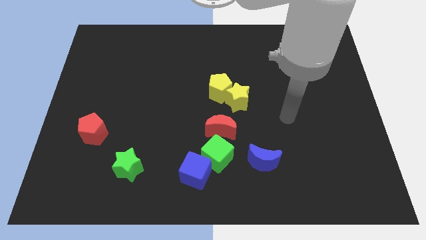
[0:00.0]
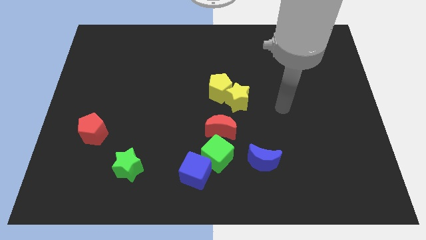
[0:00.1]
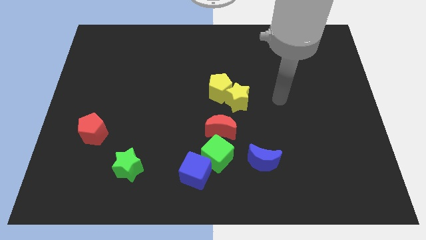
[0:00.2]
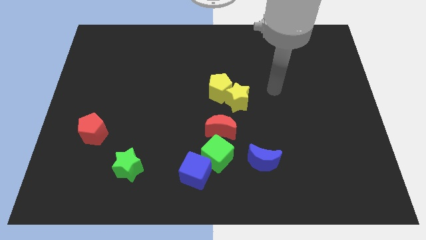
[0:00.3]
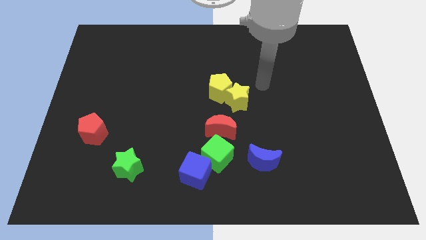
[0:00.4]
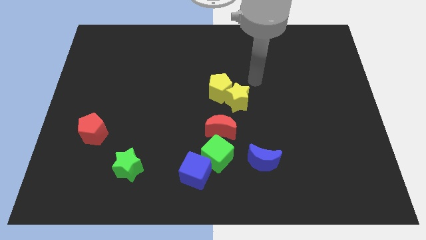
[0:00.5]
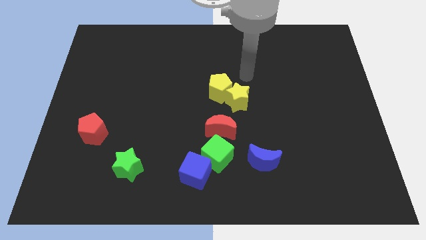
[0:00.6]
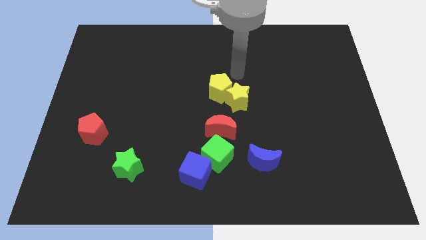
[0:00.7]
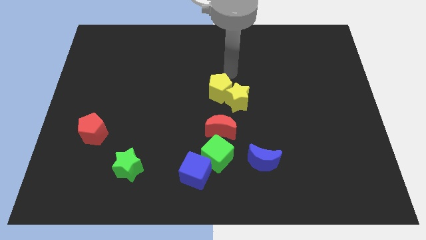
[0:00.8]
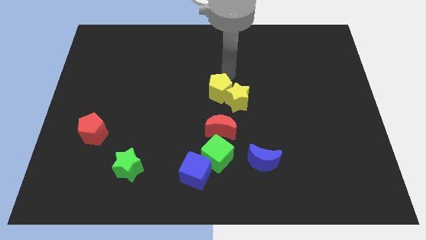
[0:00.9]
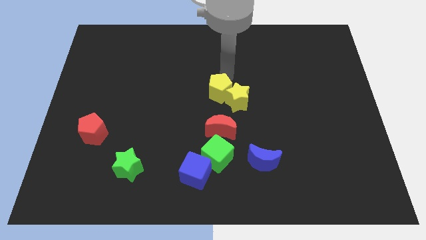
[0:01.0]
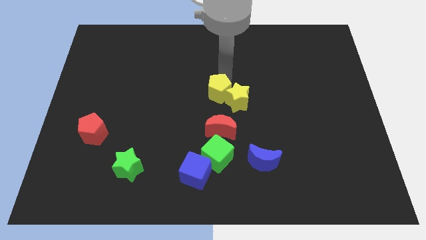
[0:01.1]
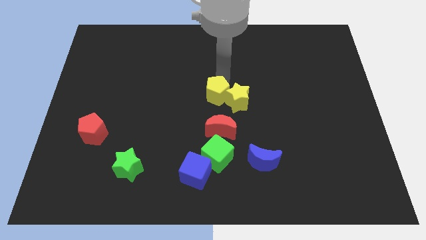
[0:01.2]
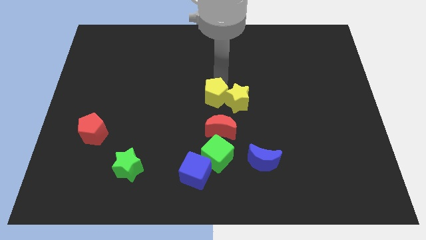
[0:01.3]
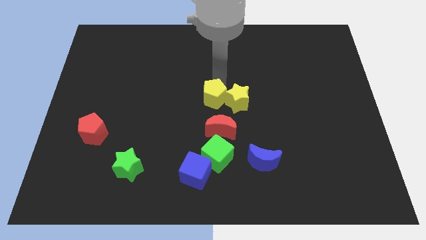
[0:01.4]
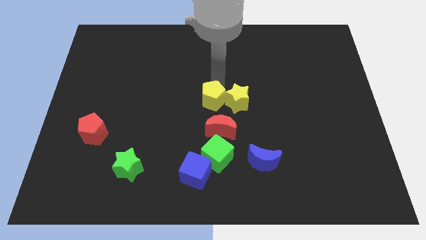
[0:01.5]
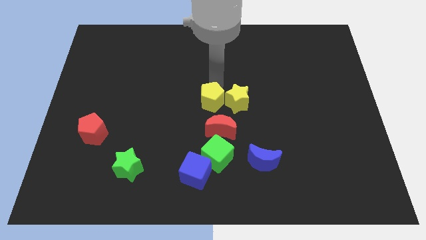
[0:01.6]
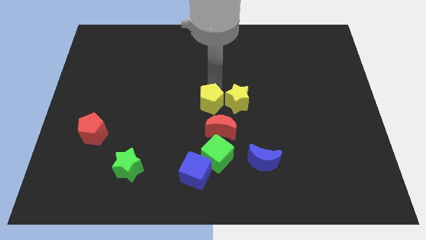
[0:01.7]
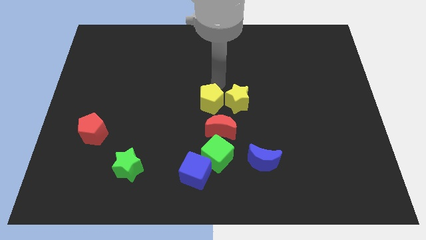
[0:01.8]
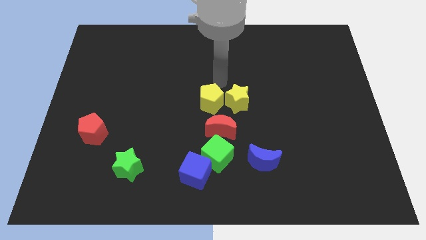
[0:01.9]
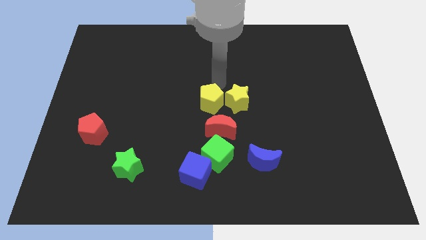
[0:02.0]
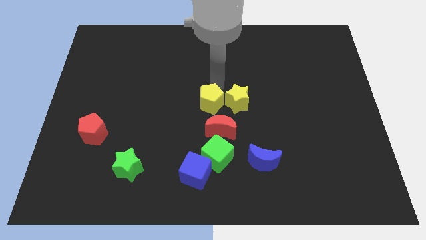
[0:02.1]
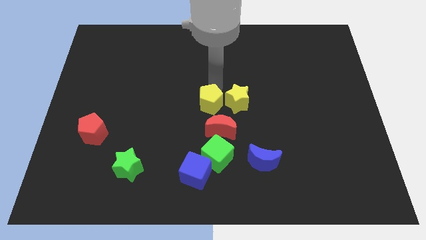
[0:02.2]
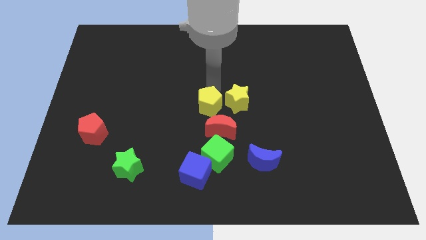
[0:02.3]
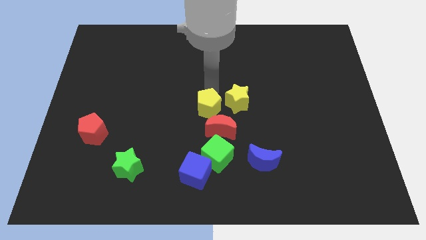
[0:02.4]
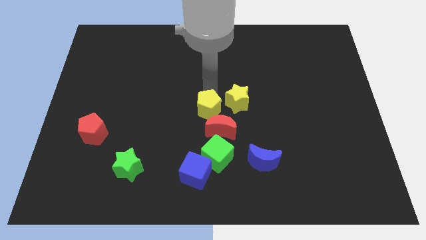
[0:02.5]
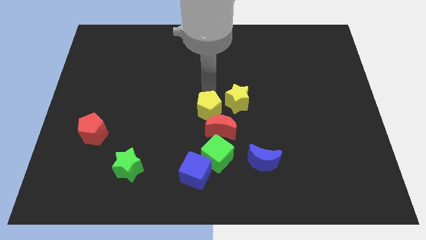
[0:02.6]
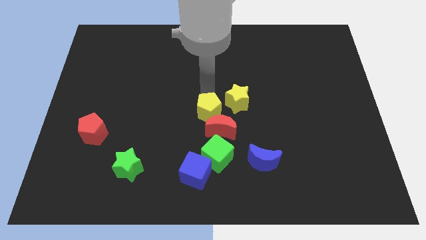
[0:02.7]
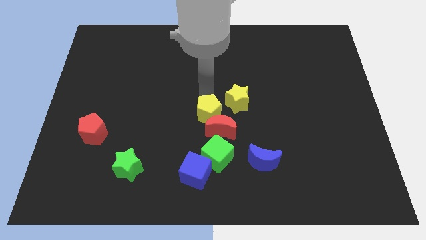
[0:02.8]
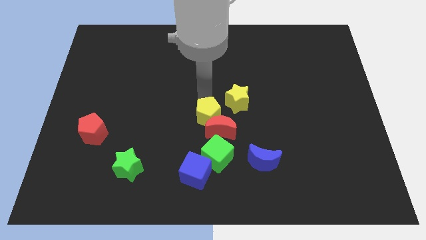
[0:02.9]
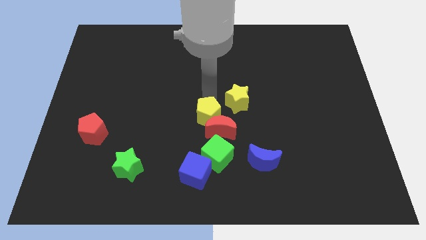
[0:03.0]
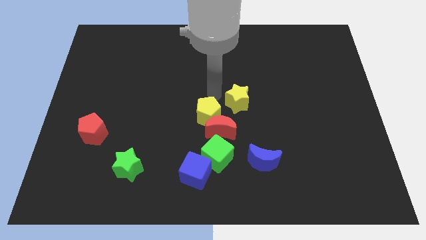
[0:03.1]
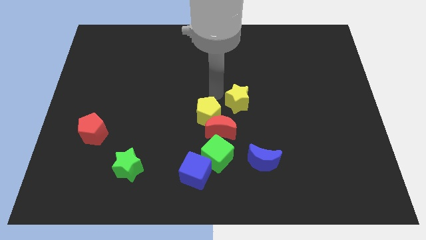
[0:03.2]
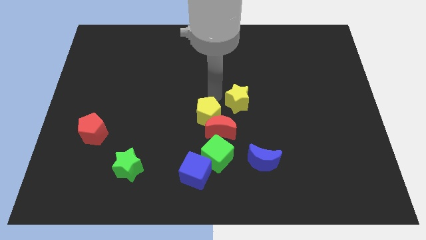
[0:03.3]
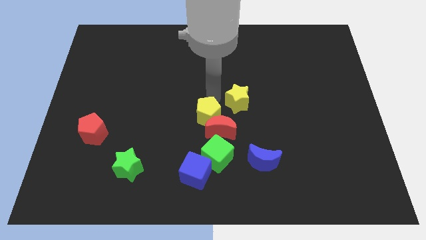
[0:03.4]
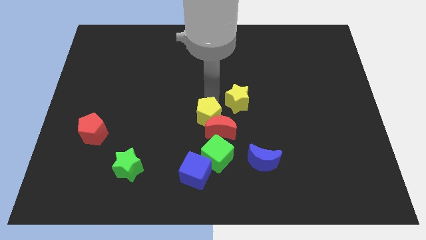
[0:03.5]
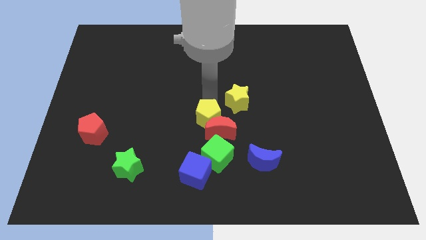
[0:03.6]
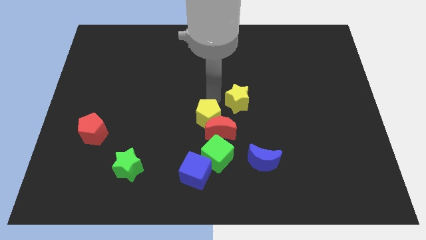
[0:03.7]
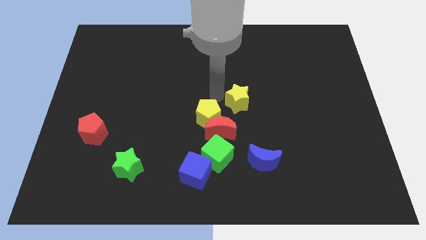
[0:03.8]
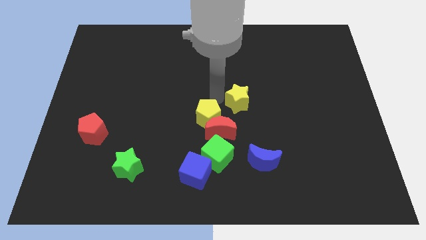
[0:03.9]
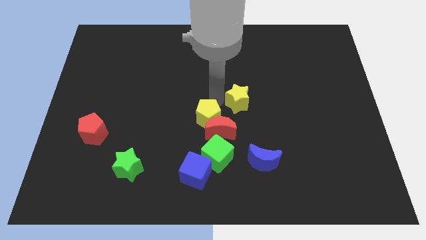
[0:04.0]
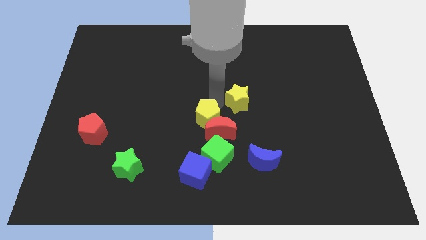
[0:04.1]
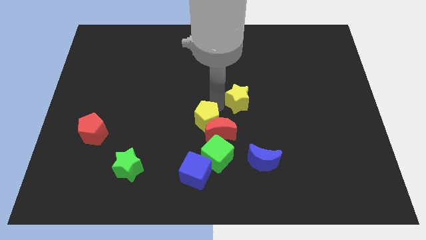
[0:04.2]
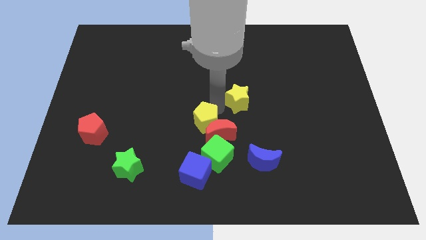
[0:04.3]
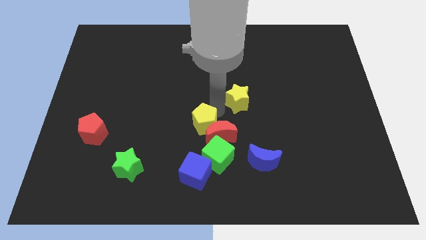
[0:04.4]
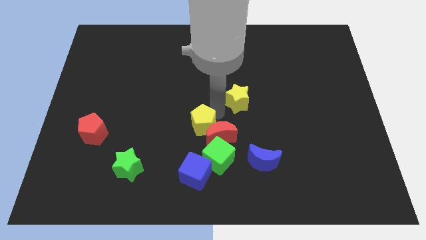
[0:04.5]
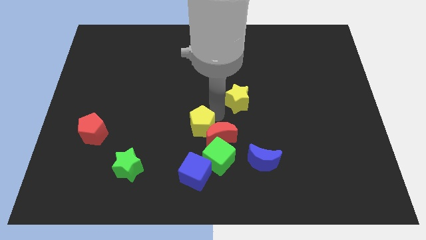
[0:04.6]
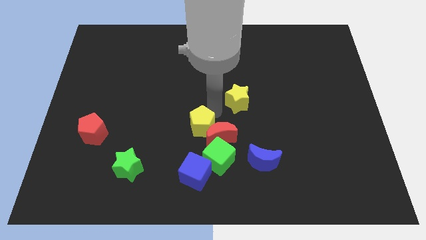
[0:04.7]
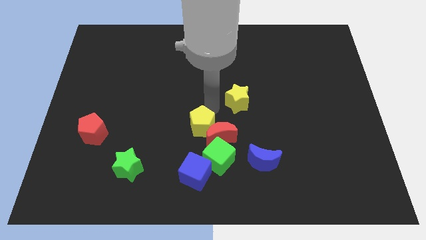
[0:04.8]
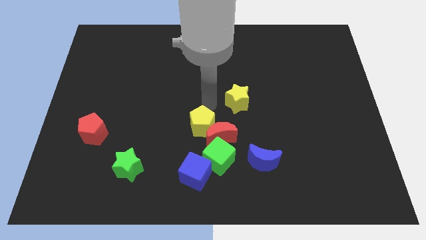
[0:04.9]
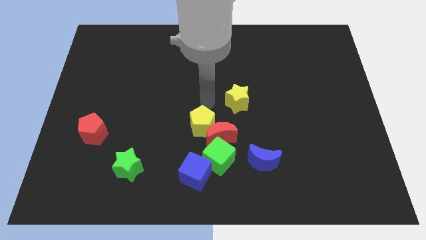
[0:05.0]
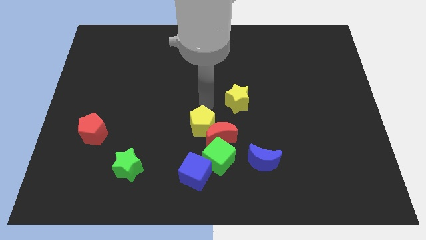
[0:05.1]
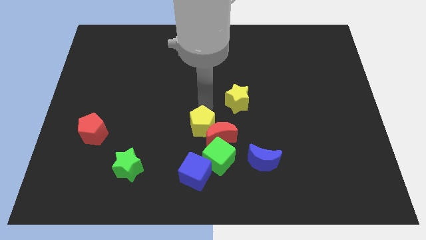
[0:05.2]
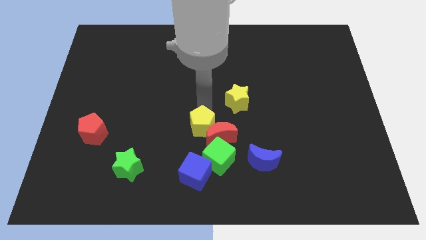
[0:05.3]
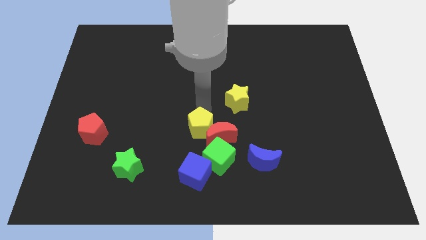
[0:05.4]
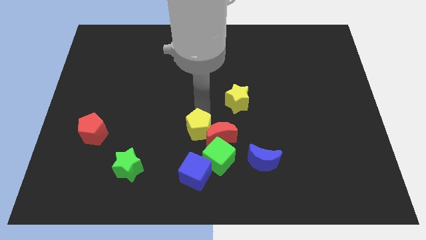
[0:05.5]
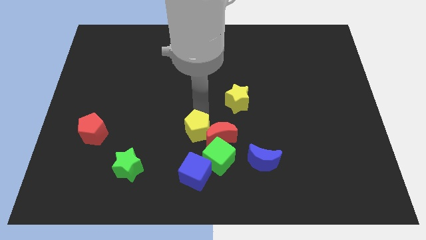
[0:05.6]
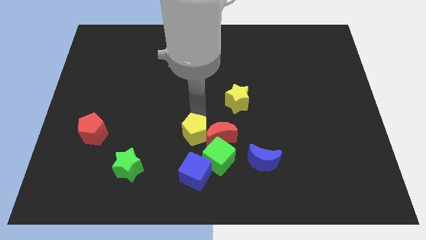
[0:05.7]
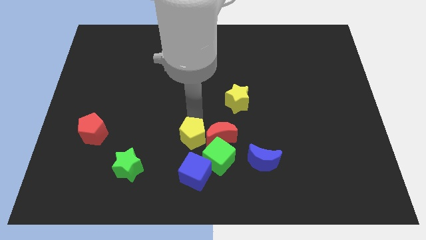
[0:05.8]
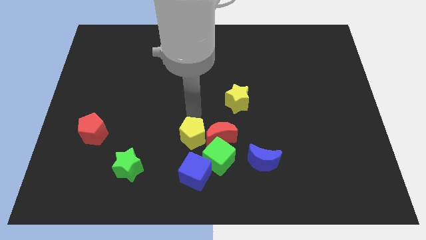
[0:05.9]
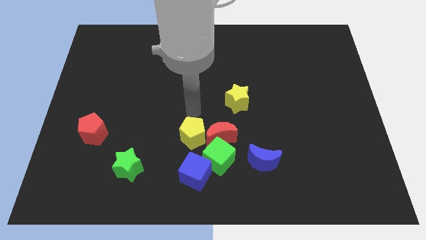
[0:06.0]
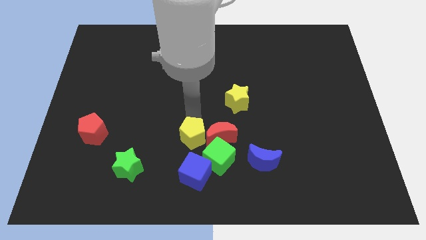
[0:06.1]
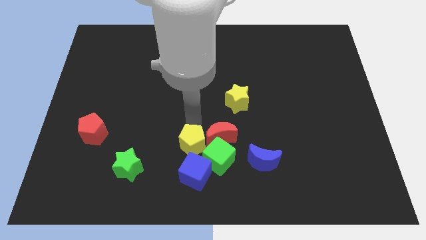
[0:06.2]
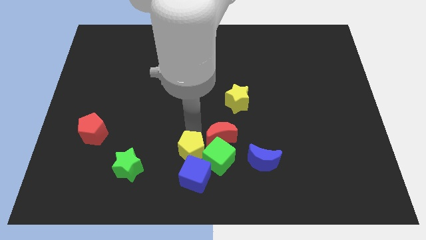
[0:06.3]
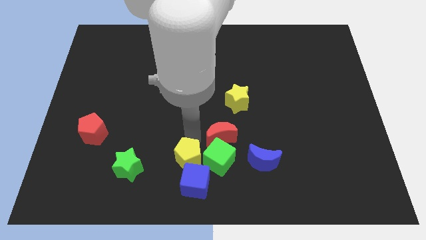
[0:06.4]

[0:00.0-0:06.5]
put the yellow pentagon close to the blue cube

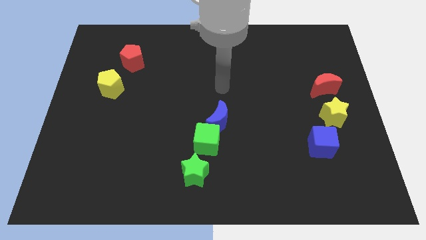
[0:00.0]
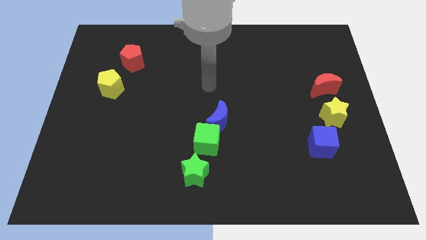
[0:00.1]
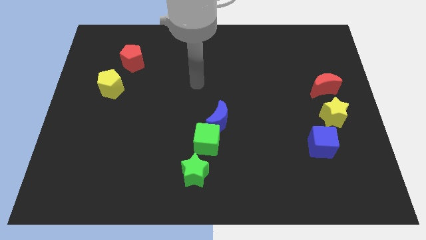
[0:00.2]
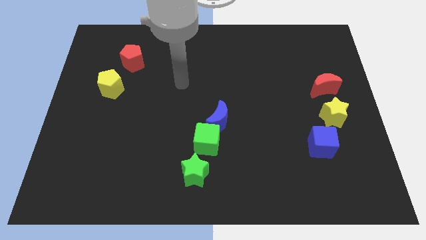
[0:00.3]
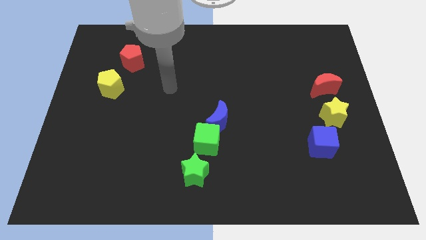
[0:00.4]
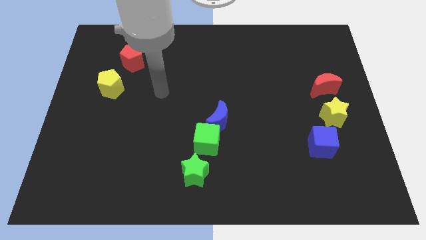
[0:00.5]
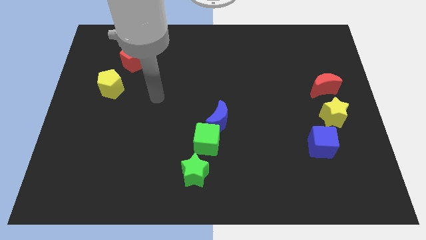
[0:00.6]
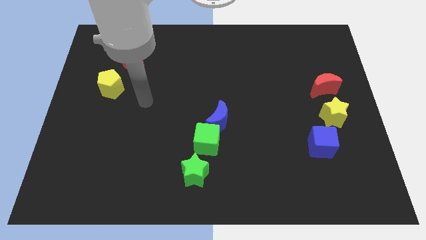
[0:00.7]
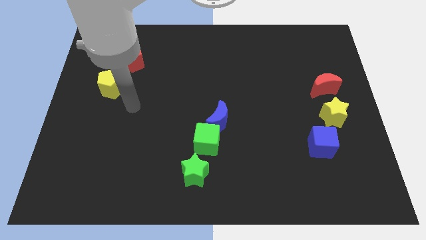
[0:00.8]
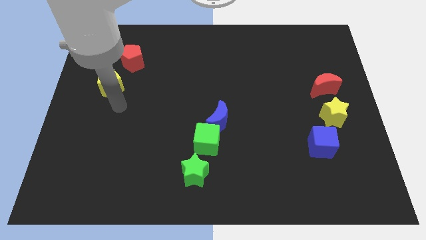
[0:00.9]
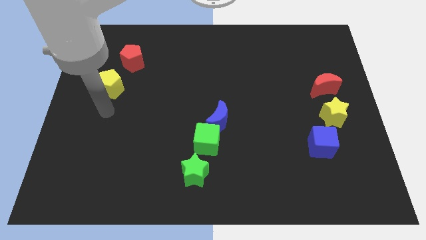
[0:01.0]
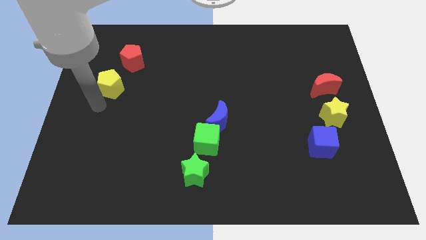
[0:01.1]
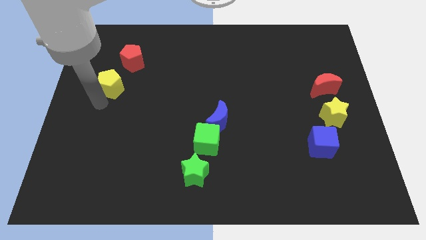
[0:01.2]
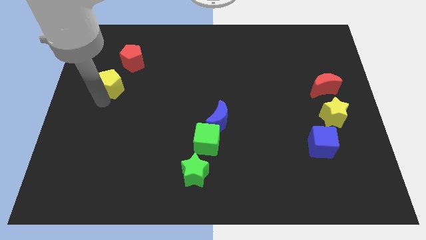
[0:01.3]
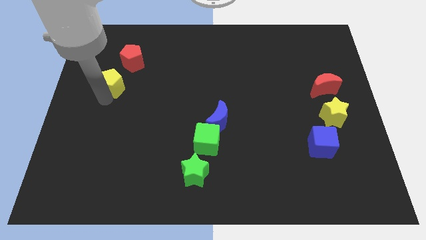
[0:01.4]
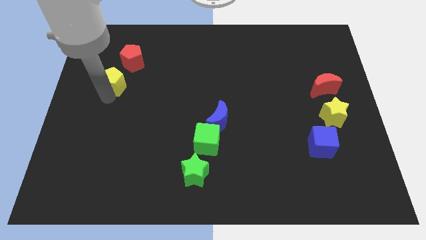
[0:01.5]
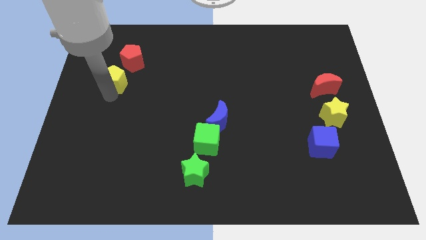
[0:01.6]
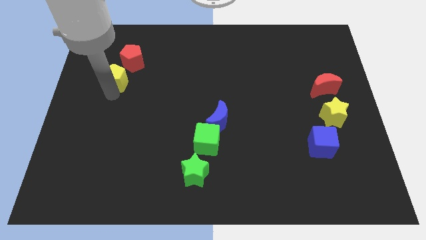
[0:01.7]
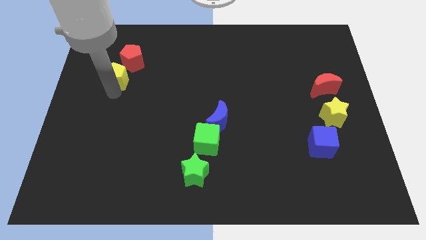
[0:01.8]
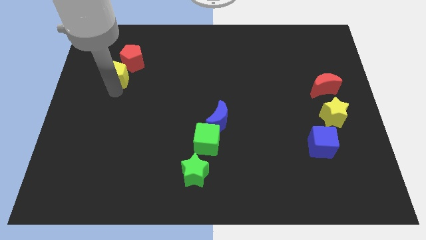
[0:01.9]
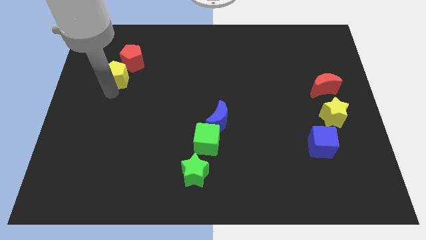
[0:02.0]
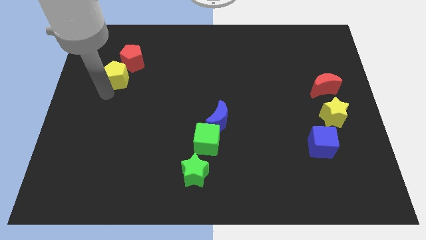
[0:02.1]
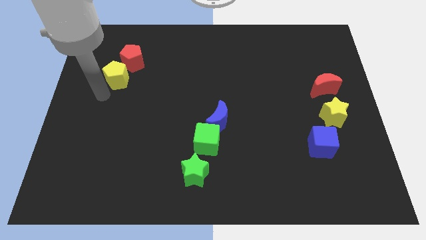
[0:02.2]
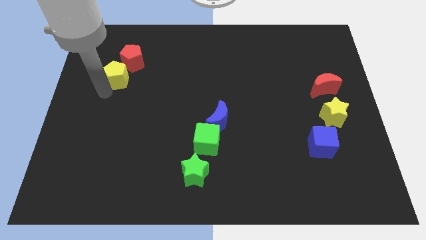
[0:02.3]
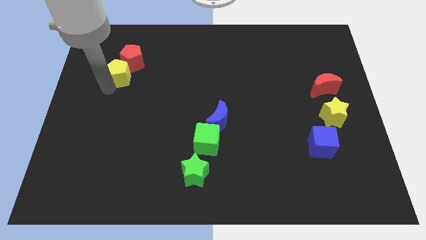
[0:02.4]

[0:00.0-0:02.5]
move the yellow pentagon towards the red pentagon
